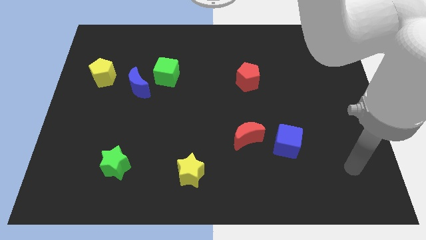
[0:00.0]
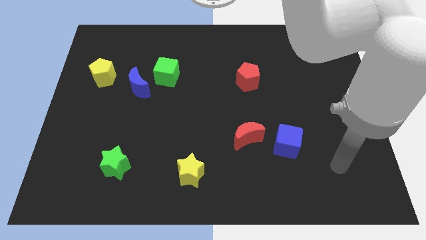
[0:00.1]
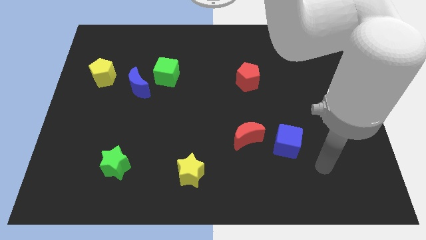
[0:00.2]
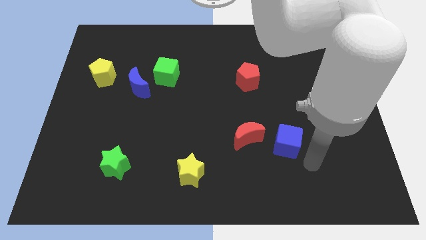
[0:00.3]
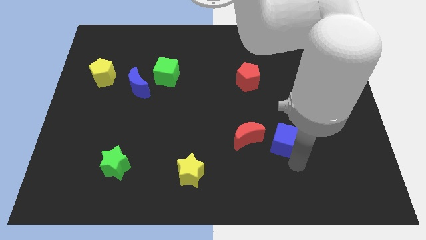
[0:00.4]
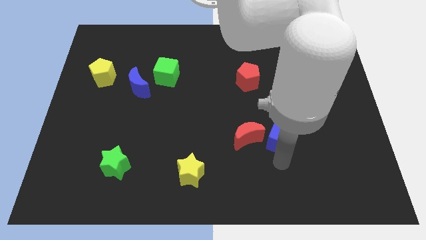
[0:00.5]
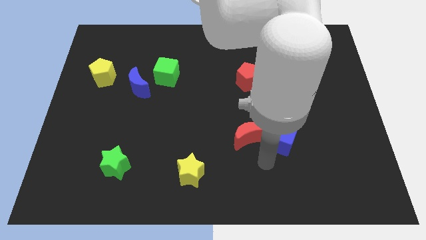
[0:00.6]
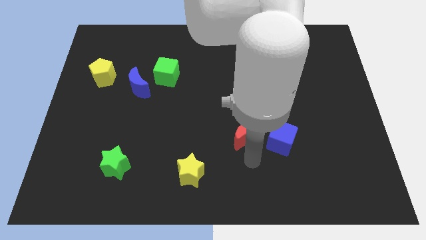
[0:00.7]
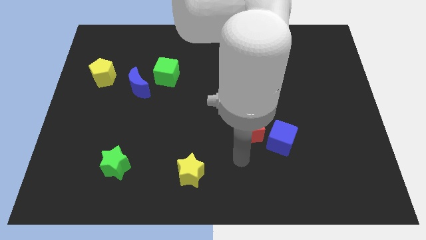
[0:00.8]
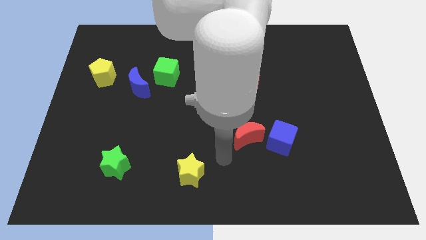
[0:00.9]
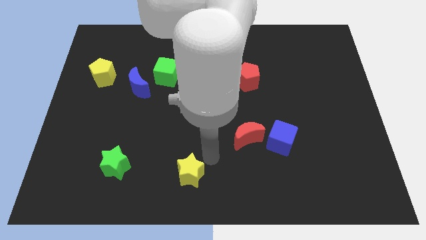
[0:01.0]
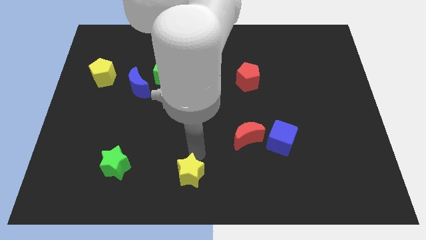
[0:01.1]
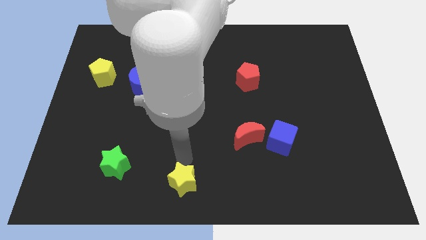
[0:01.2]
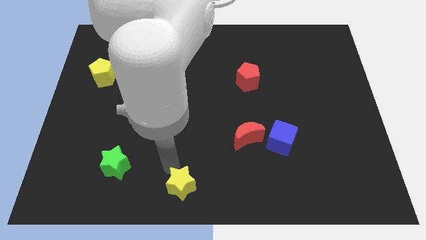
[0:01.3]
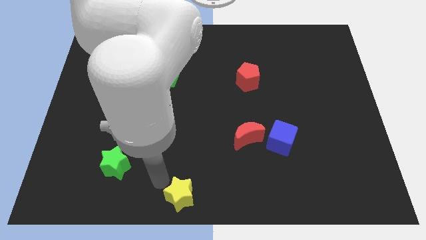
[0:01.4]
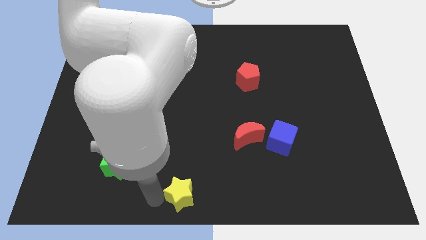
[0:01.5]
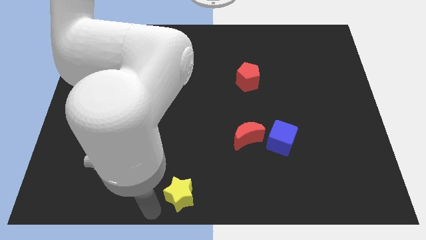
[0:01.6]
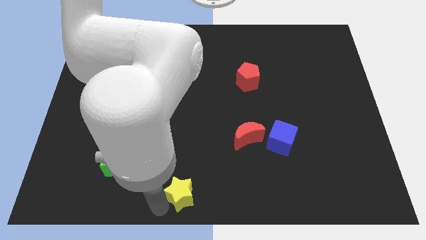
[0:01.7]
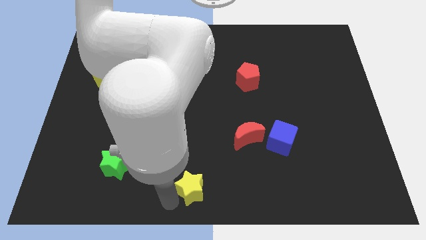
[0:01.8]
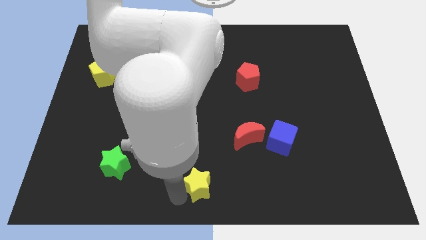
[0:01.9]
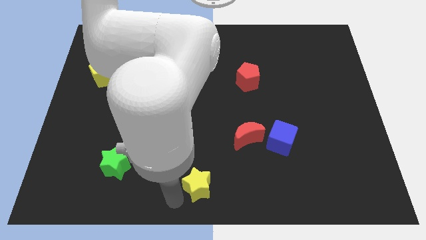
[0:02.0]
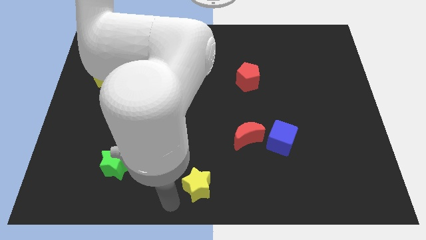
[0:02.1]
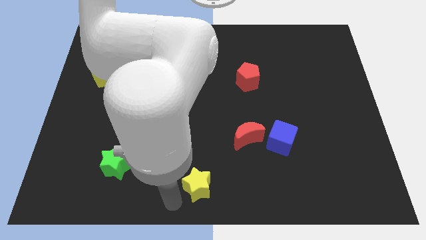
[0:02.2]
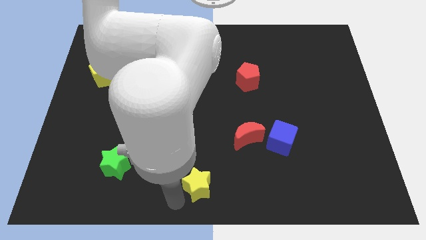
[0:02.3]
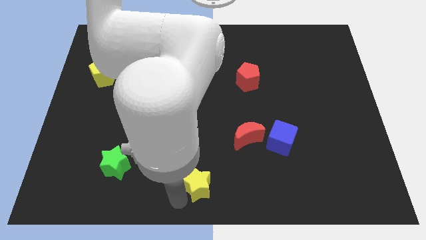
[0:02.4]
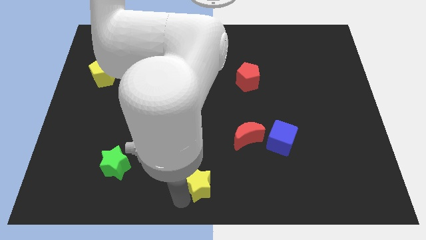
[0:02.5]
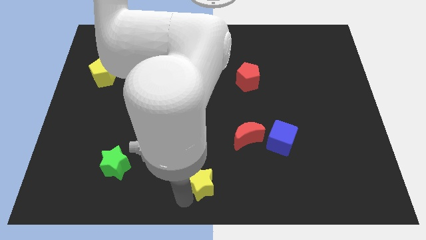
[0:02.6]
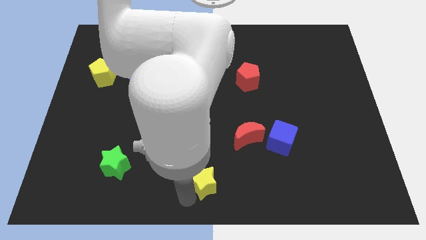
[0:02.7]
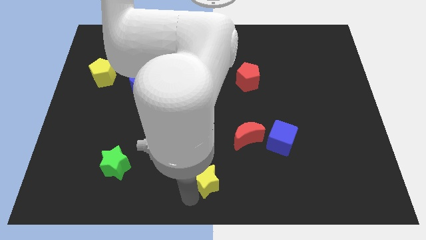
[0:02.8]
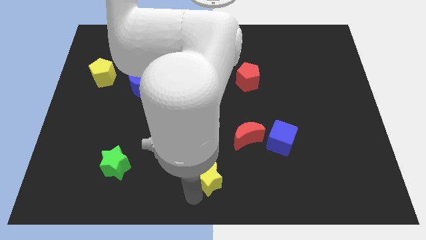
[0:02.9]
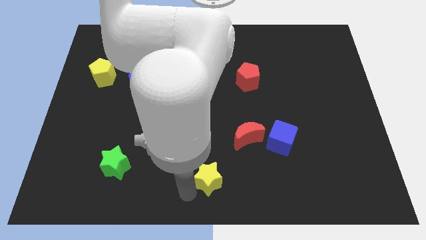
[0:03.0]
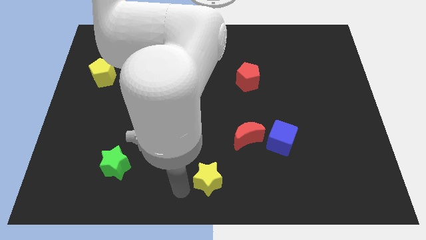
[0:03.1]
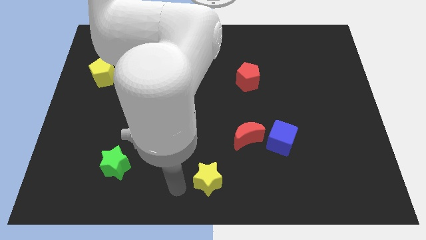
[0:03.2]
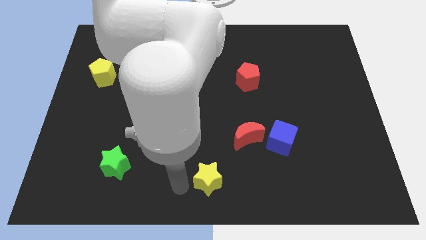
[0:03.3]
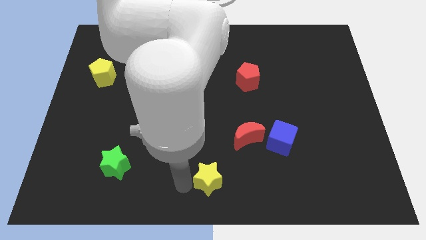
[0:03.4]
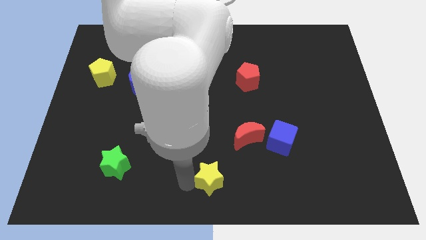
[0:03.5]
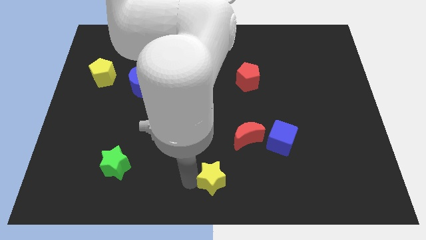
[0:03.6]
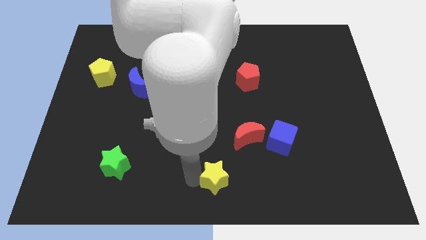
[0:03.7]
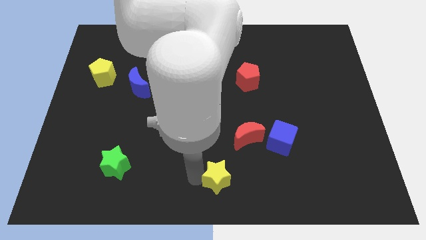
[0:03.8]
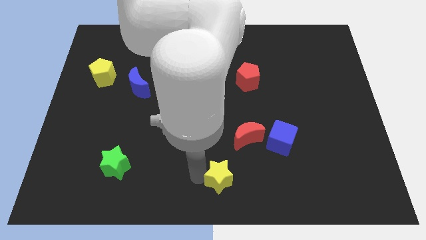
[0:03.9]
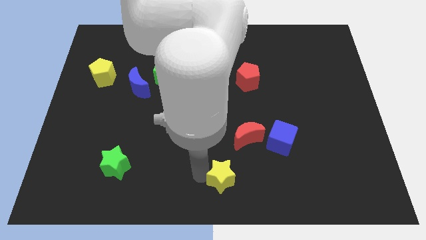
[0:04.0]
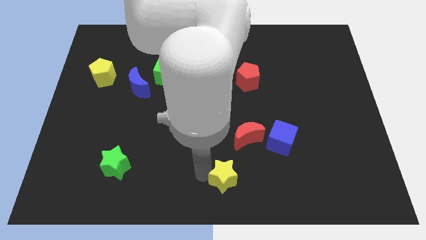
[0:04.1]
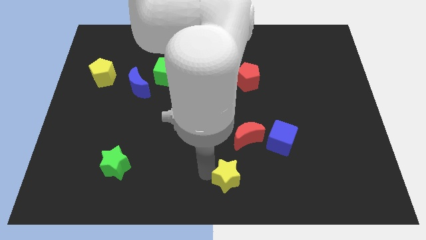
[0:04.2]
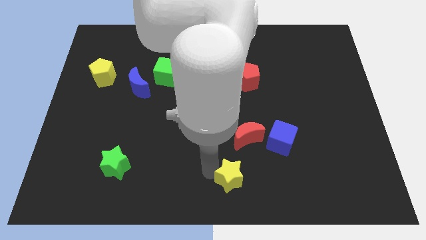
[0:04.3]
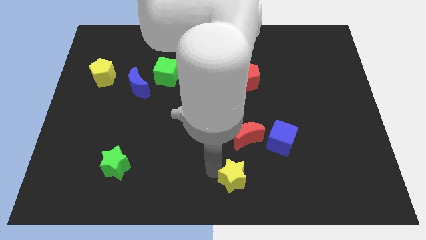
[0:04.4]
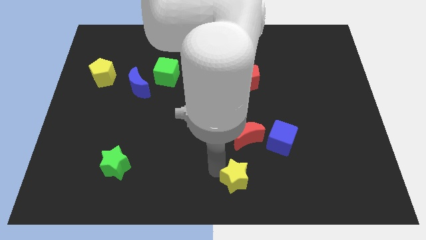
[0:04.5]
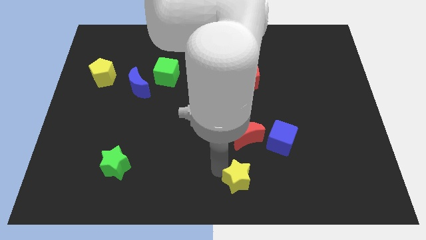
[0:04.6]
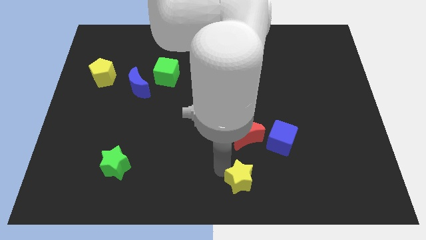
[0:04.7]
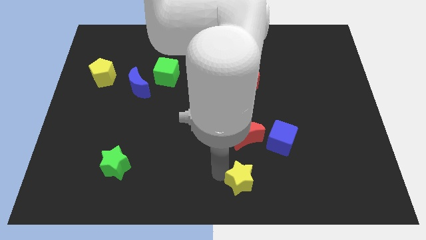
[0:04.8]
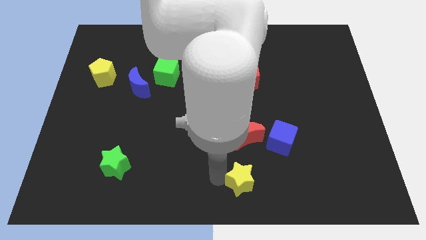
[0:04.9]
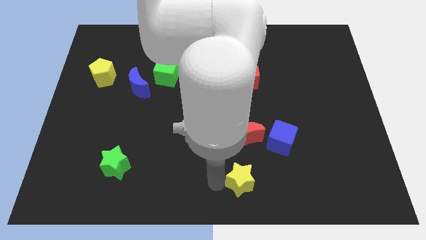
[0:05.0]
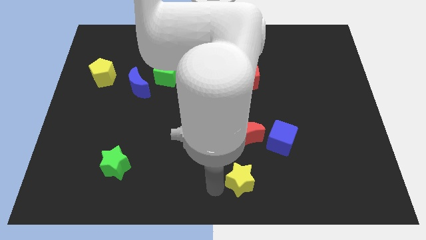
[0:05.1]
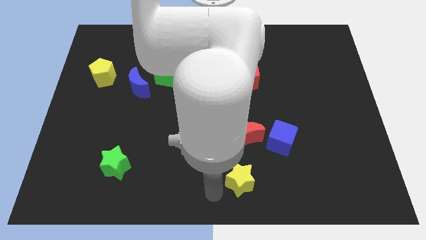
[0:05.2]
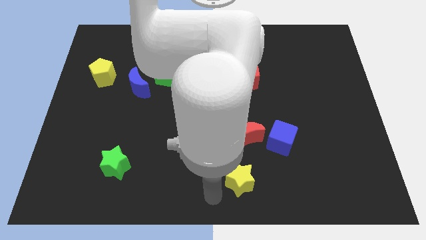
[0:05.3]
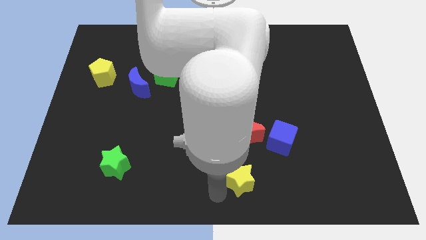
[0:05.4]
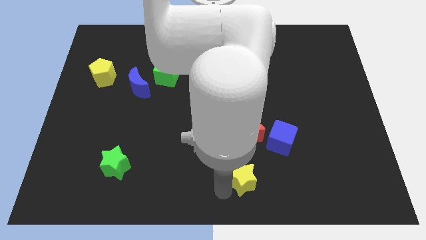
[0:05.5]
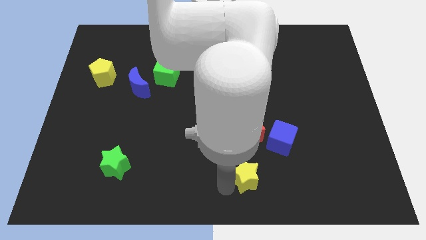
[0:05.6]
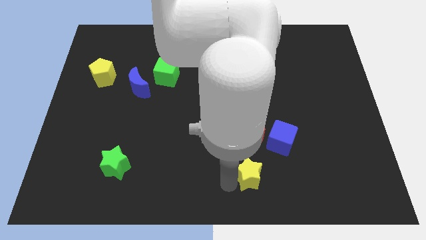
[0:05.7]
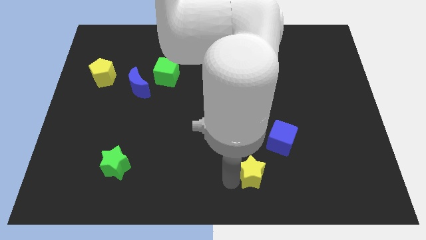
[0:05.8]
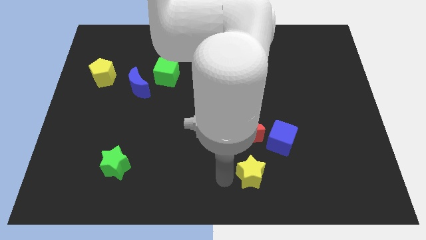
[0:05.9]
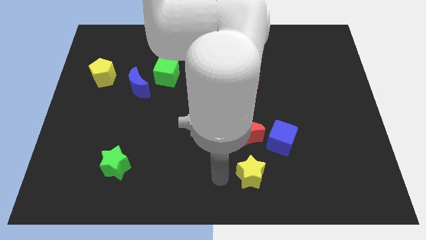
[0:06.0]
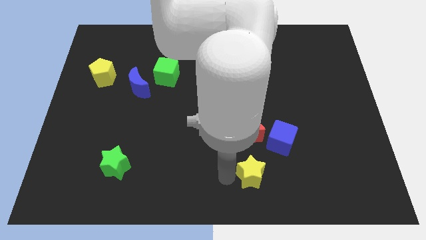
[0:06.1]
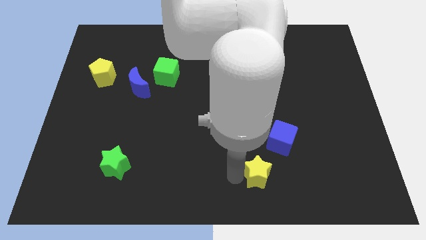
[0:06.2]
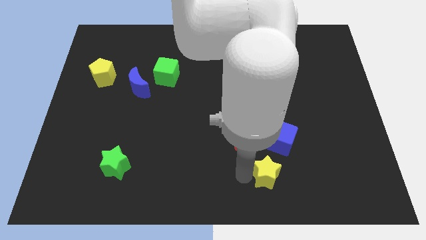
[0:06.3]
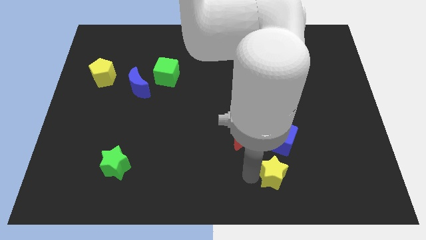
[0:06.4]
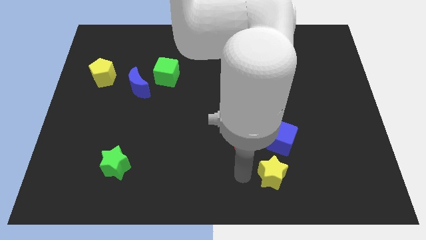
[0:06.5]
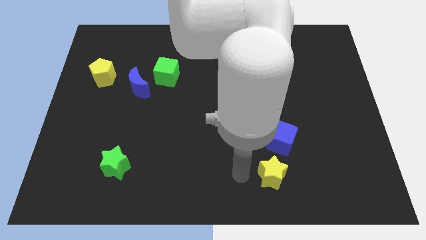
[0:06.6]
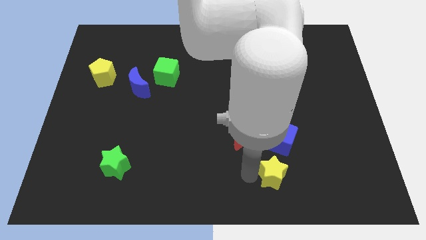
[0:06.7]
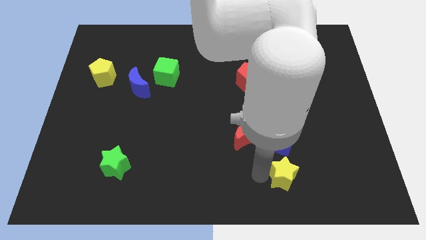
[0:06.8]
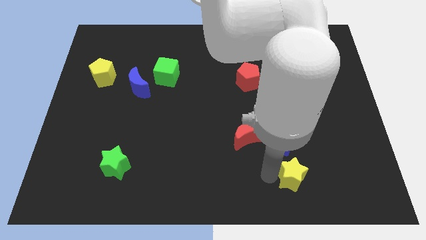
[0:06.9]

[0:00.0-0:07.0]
push the yellow star right

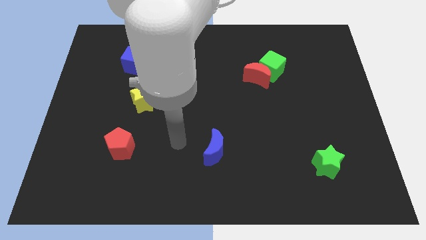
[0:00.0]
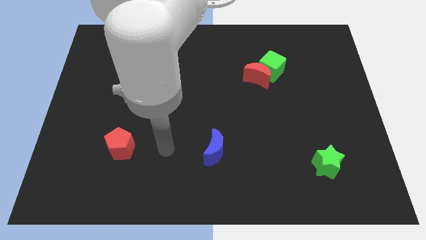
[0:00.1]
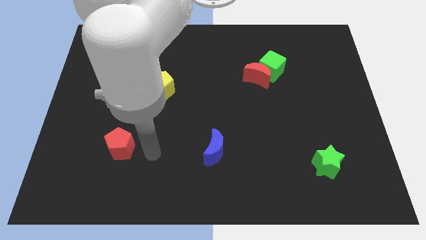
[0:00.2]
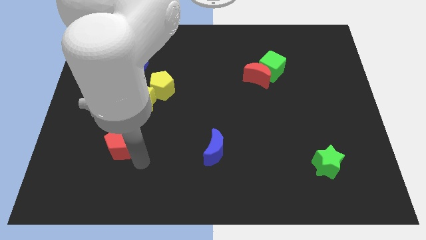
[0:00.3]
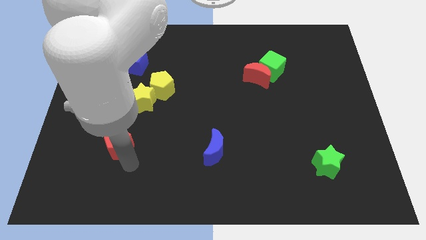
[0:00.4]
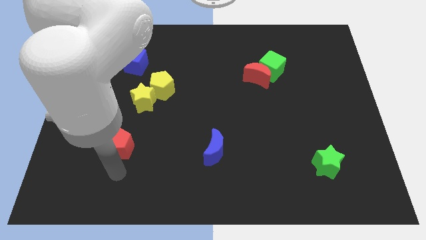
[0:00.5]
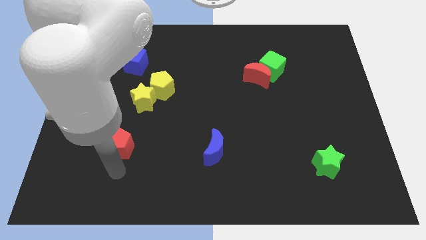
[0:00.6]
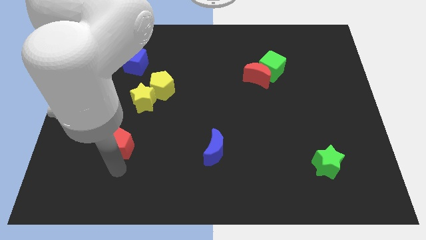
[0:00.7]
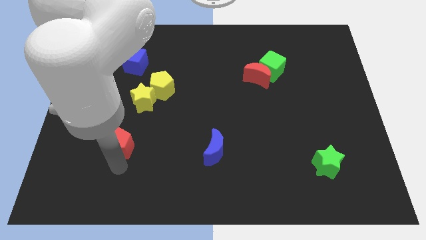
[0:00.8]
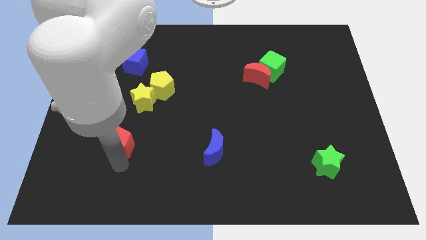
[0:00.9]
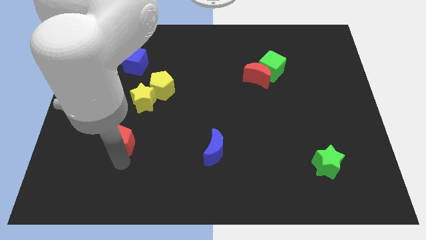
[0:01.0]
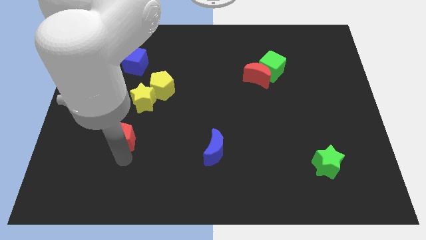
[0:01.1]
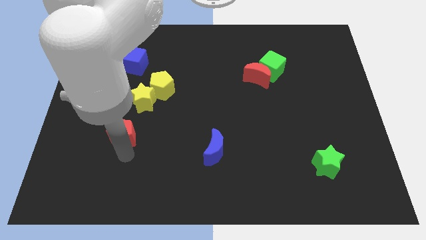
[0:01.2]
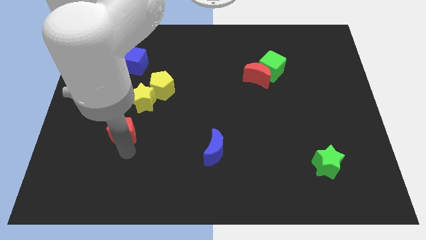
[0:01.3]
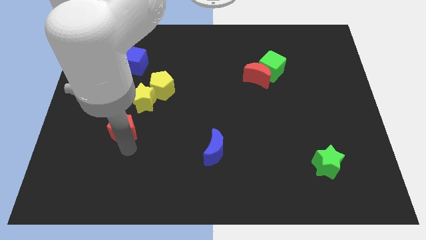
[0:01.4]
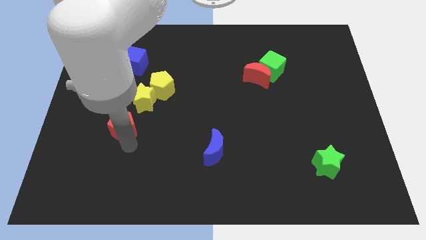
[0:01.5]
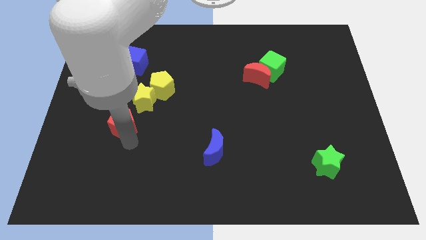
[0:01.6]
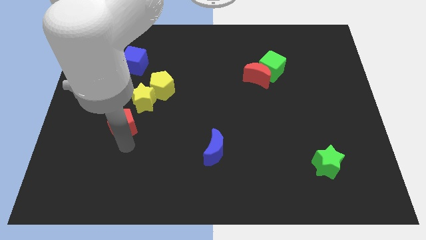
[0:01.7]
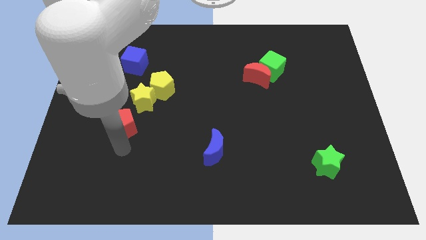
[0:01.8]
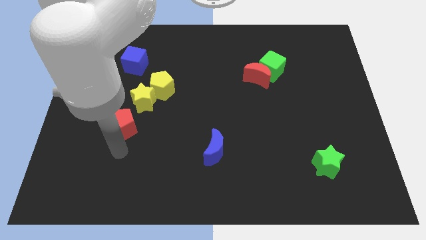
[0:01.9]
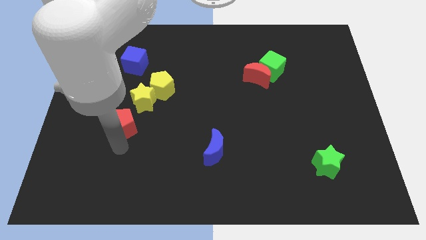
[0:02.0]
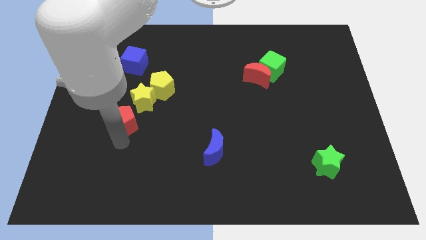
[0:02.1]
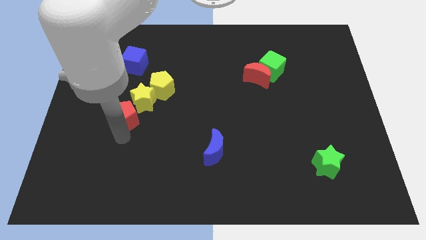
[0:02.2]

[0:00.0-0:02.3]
push the red pentagon upwards a bit
